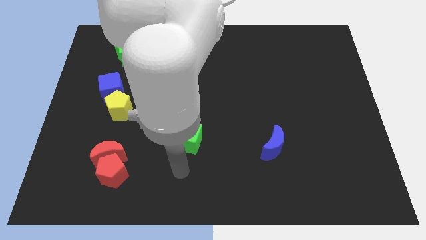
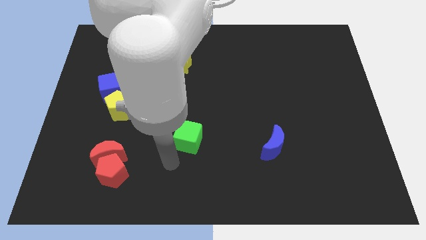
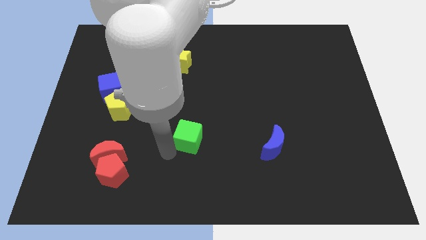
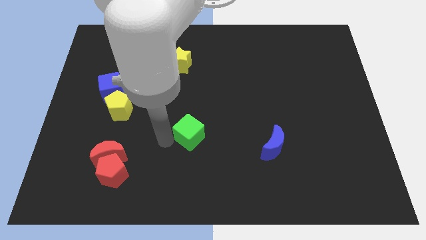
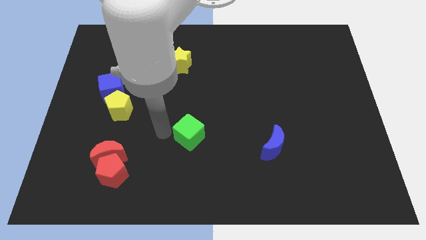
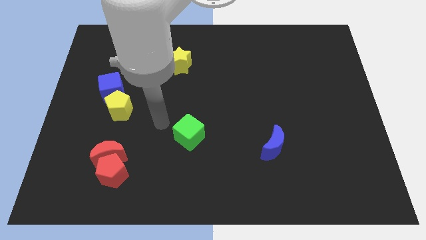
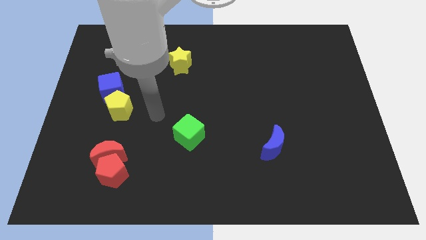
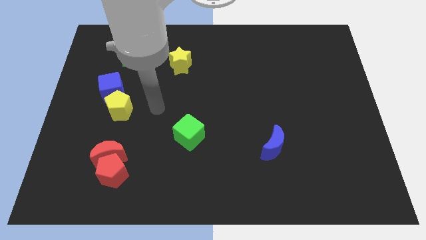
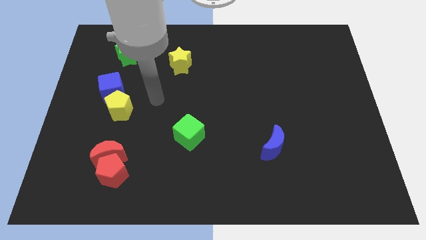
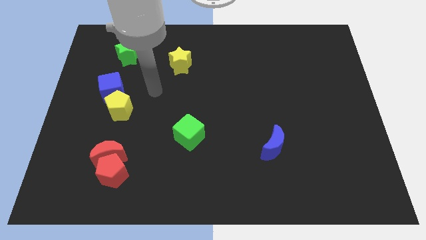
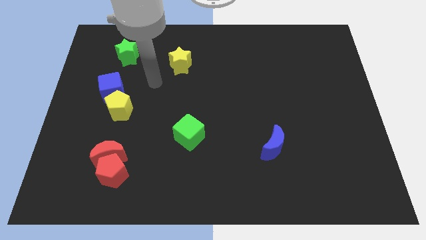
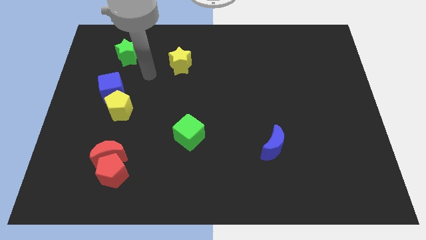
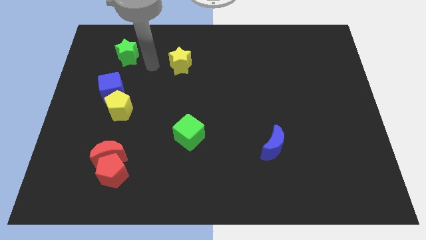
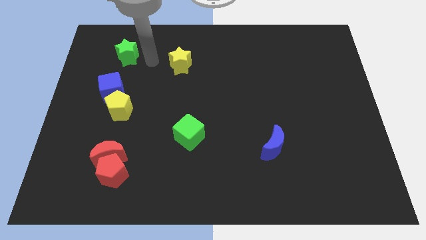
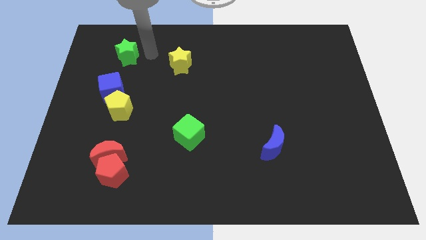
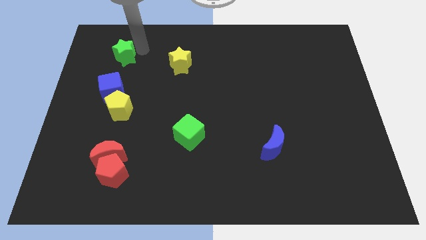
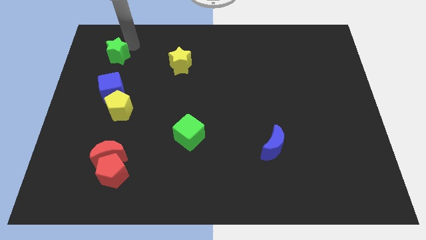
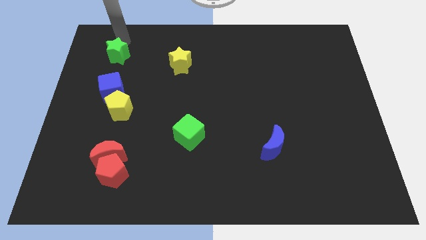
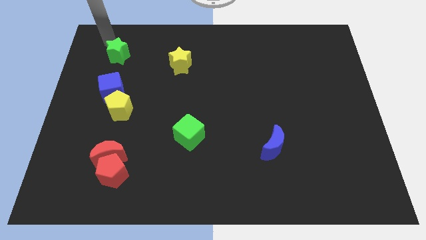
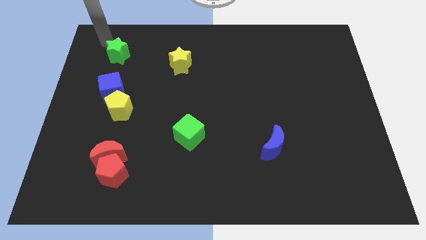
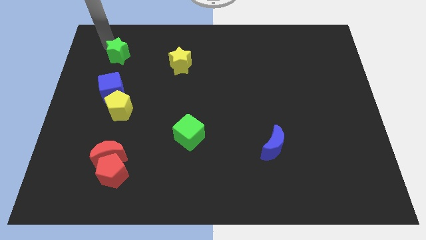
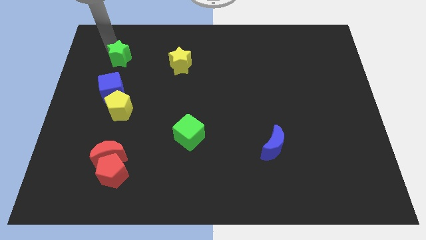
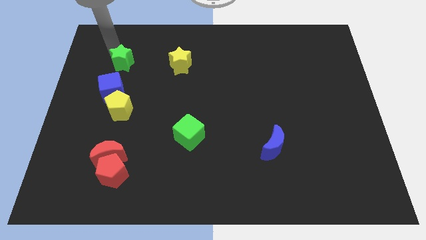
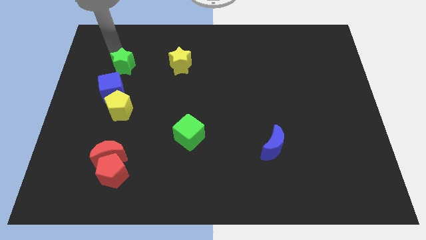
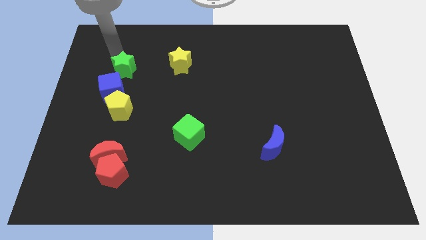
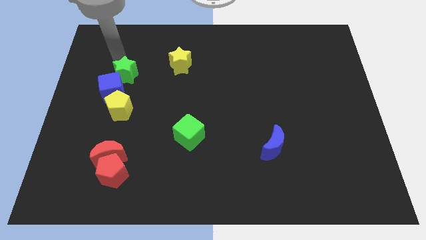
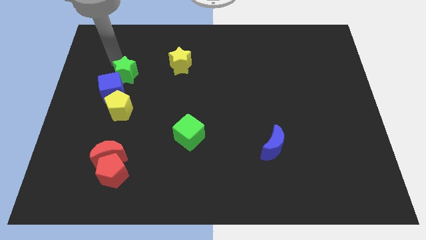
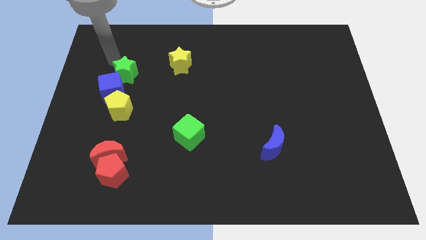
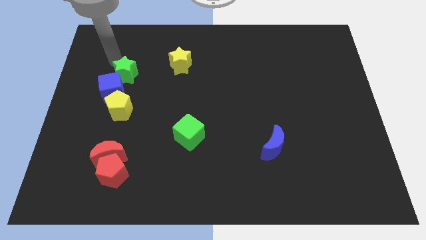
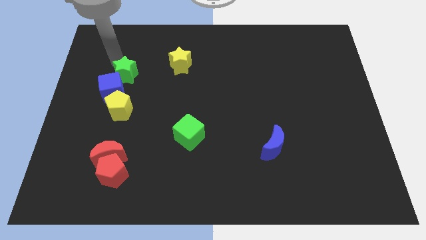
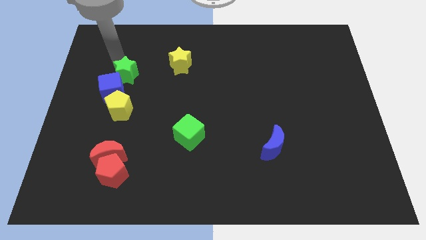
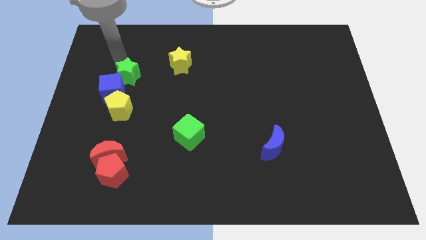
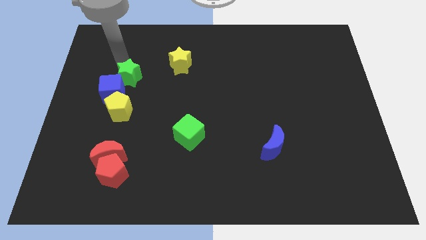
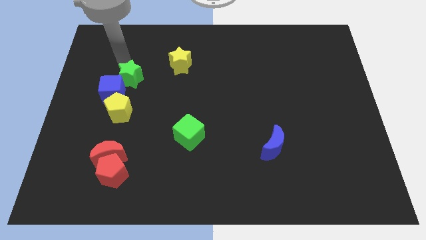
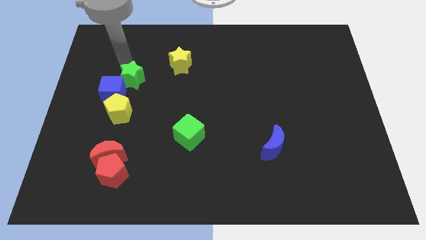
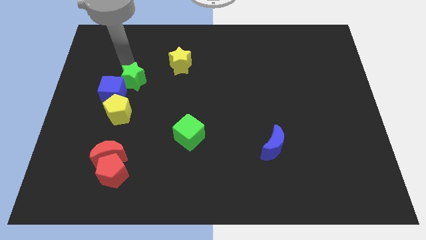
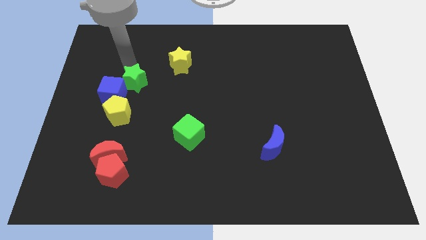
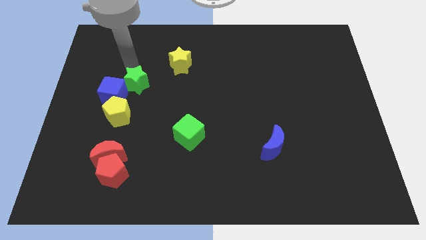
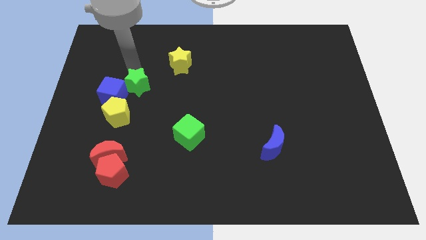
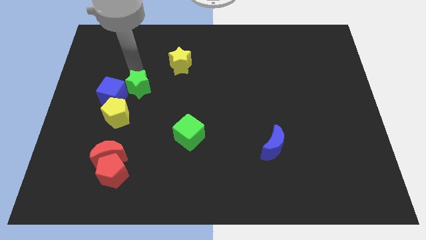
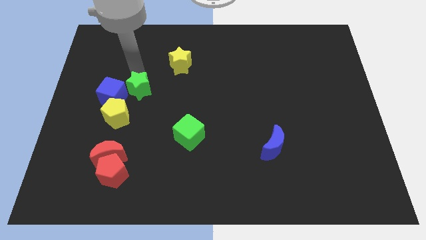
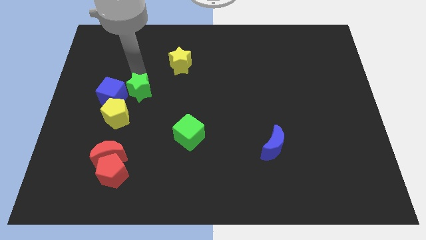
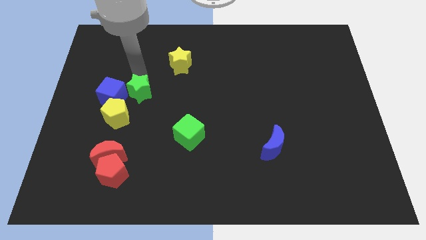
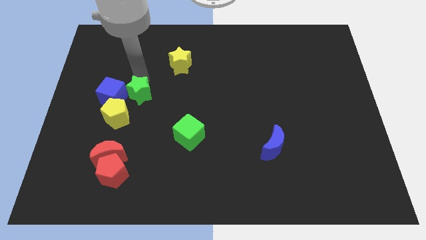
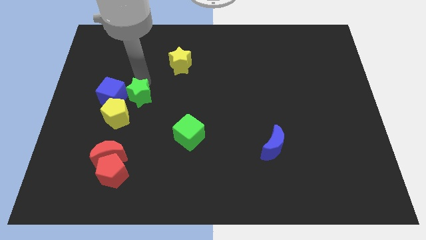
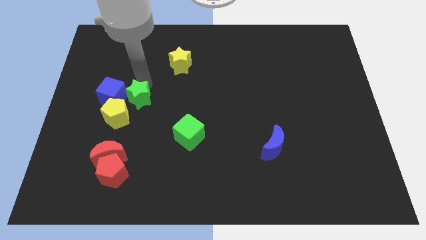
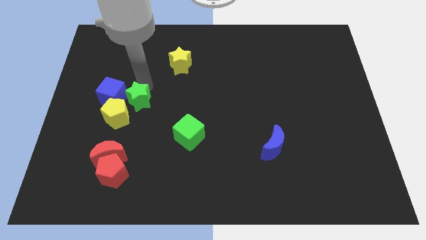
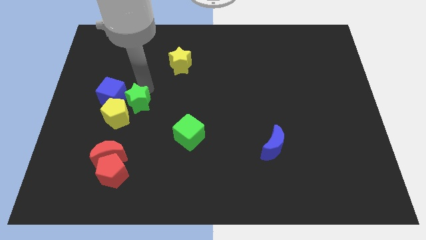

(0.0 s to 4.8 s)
put the green star next to the yellow pentagon

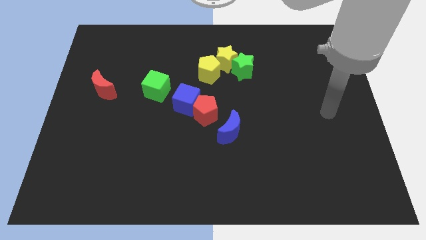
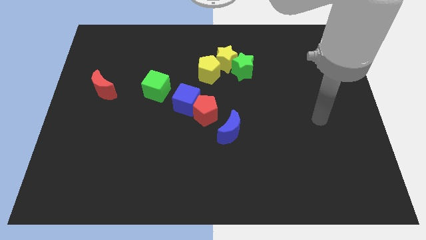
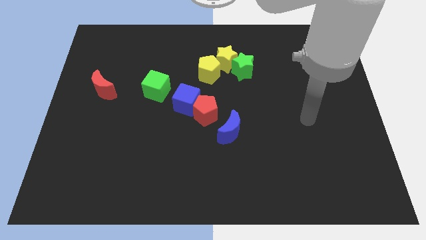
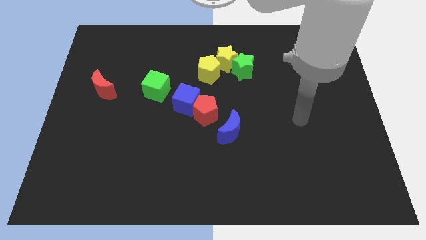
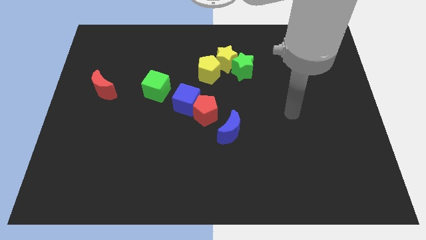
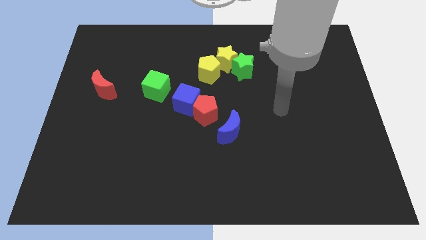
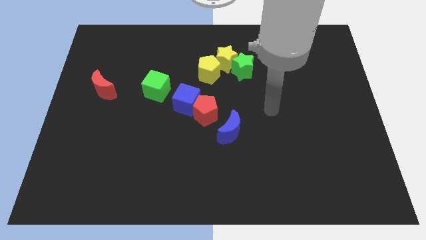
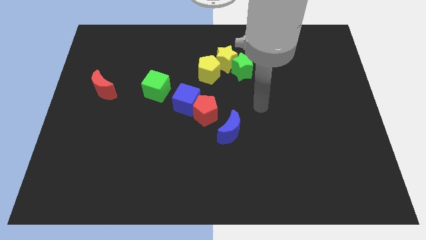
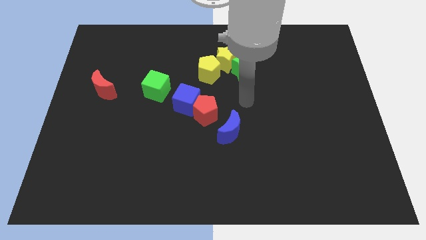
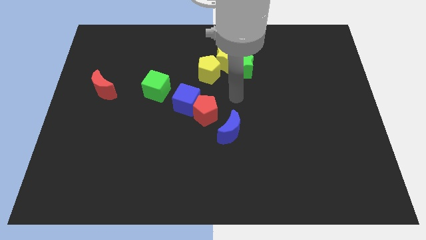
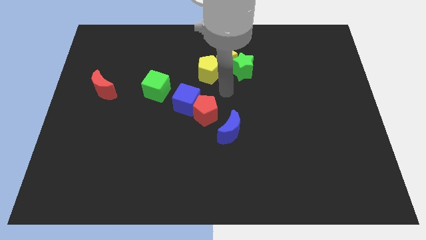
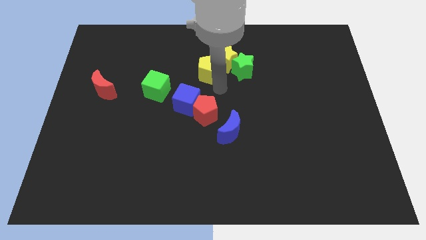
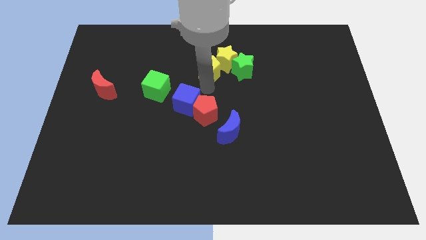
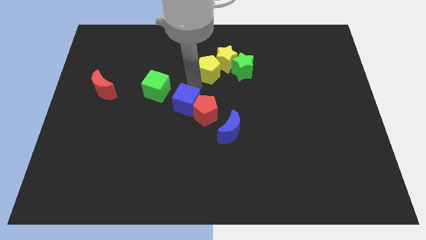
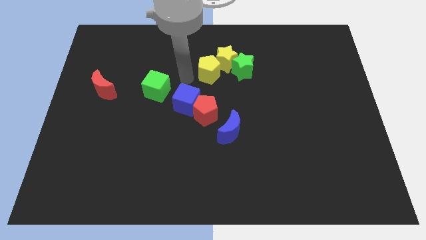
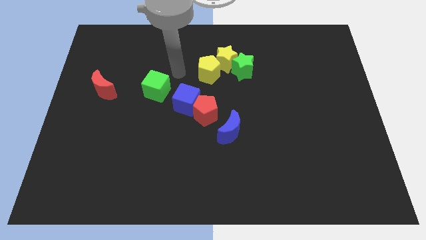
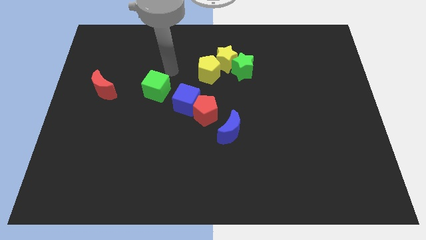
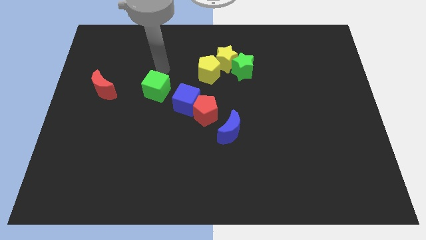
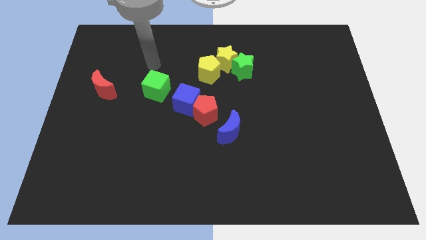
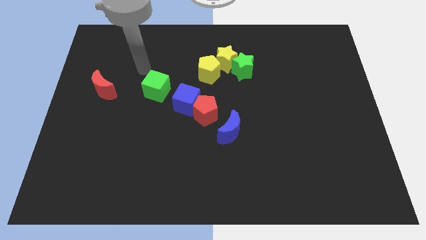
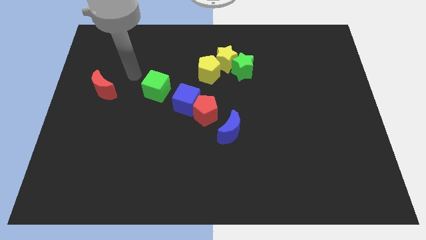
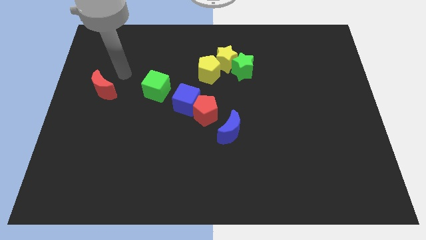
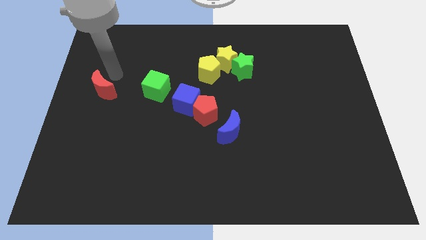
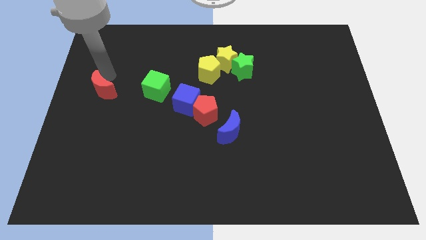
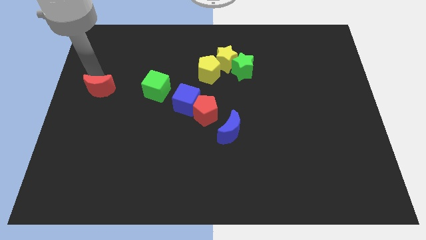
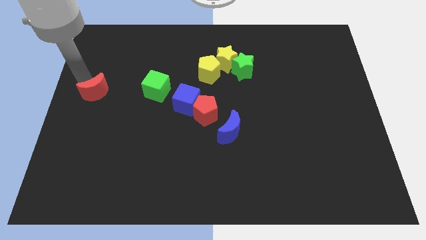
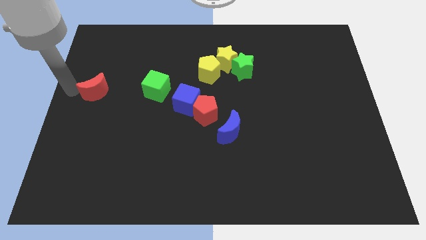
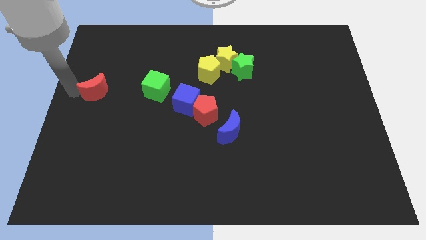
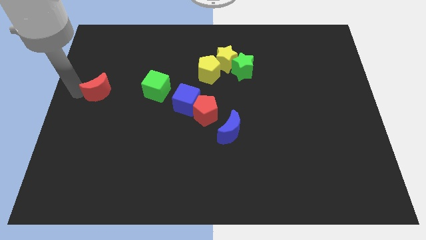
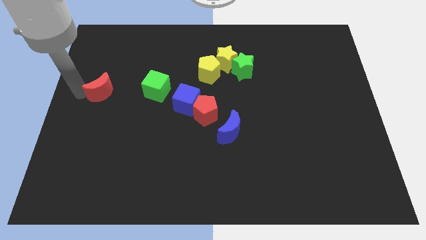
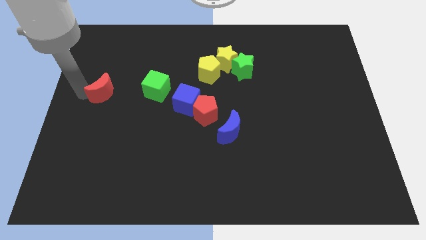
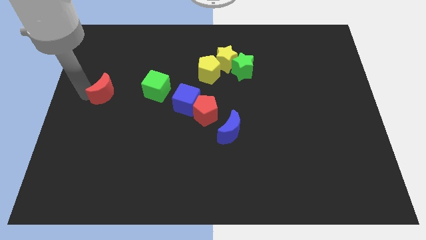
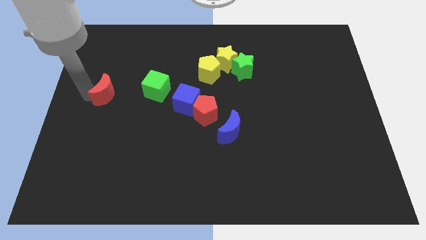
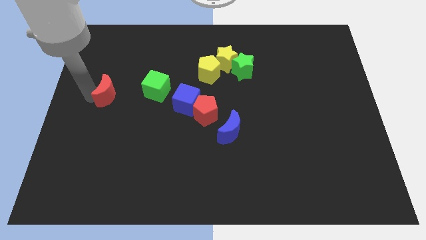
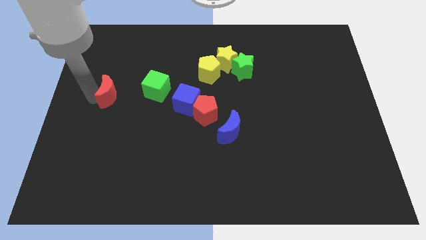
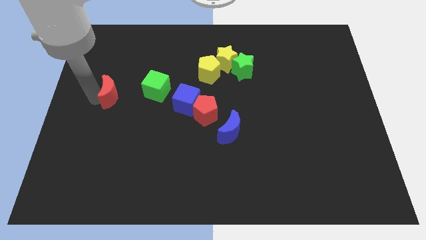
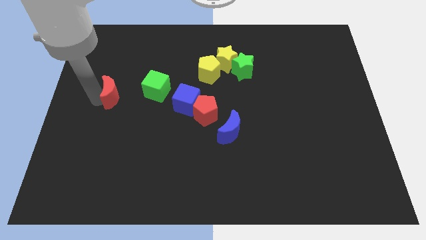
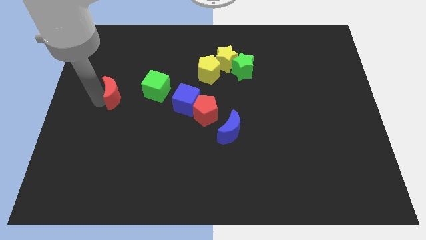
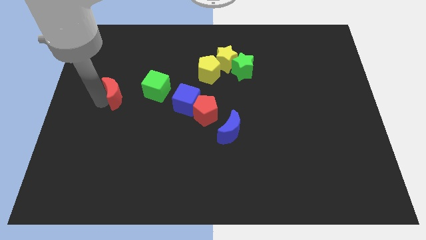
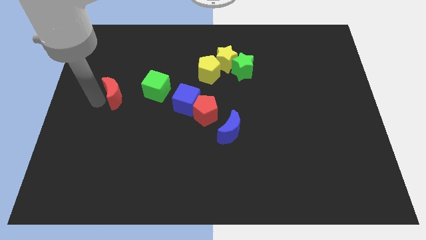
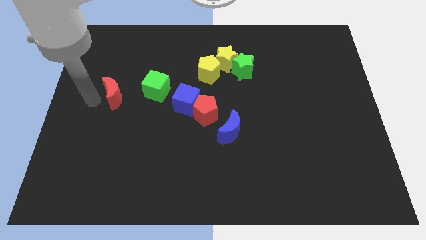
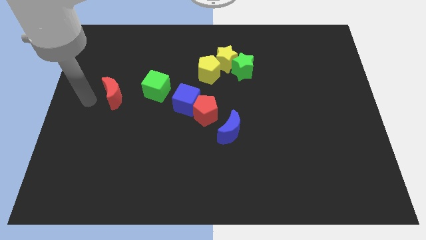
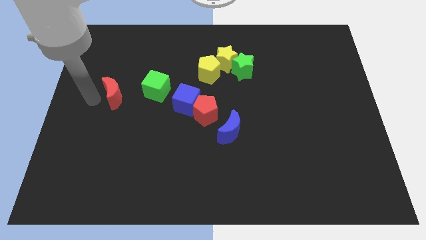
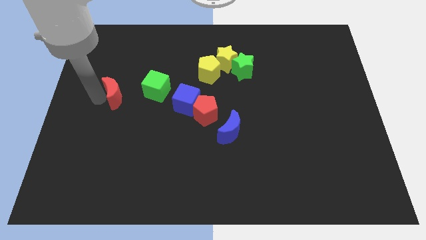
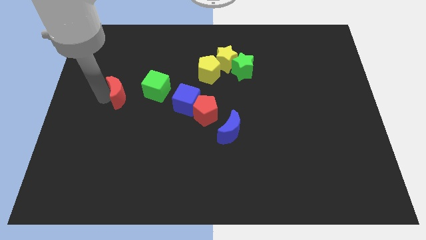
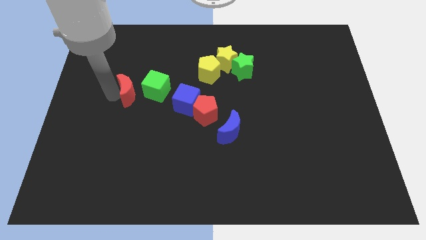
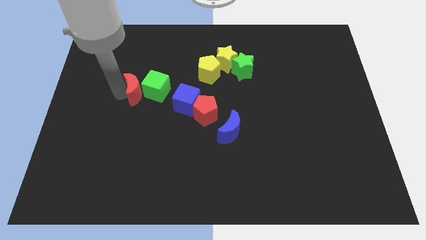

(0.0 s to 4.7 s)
slide the red moon next to the green cube
